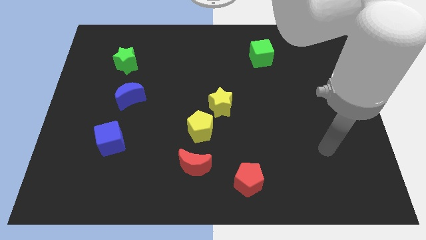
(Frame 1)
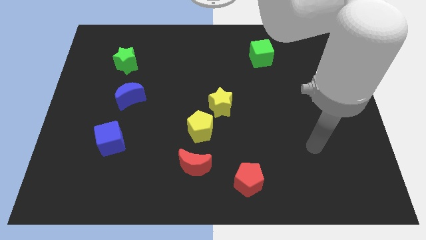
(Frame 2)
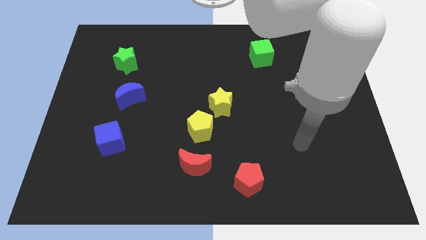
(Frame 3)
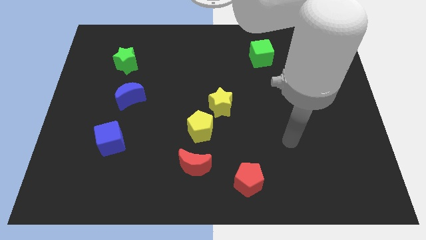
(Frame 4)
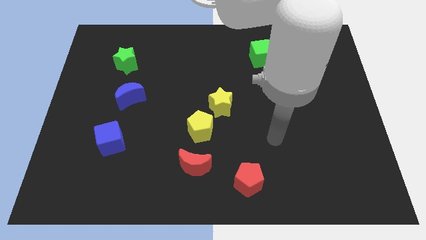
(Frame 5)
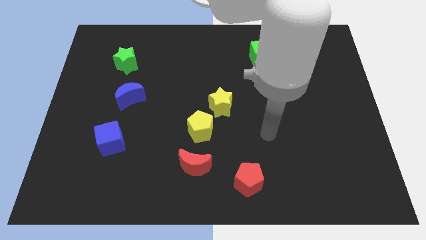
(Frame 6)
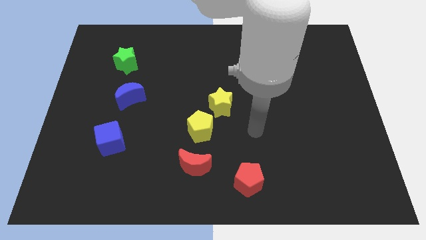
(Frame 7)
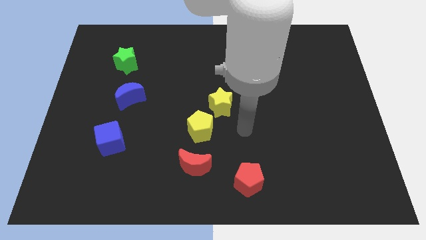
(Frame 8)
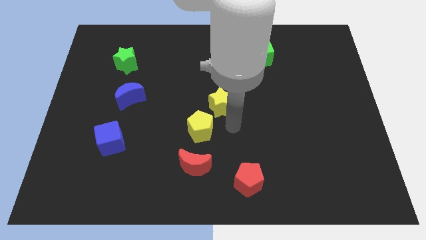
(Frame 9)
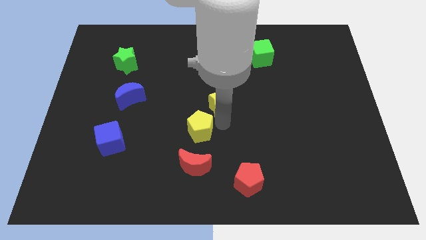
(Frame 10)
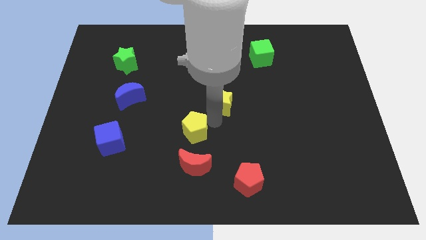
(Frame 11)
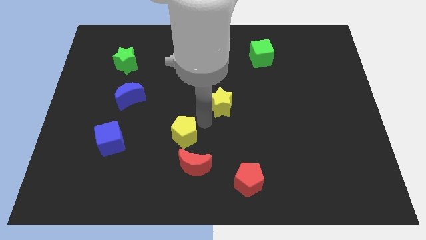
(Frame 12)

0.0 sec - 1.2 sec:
move the yellow star away from the yellow pentagon

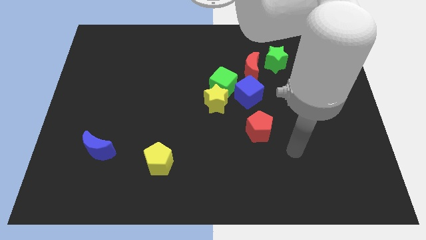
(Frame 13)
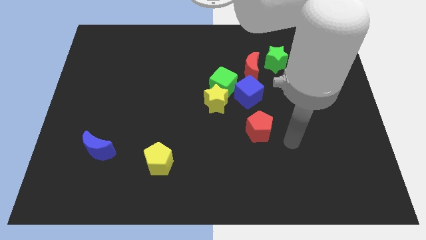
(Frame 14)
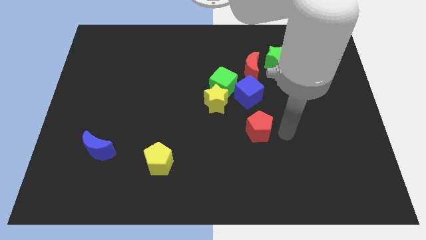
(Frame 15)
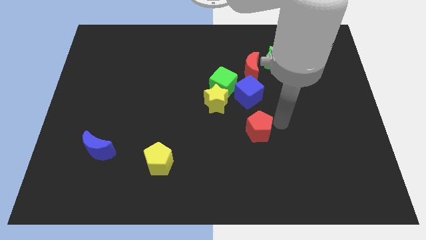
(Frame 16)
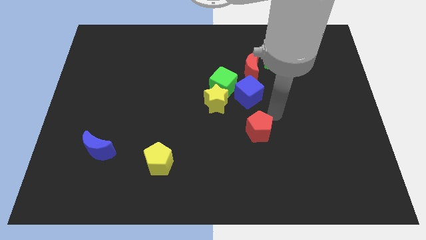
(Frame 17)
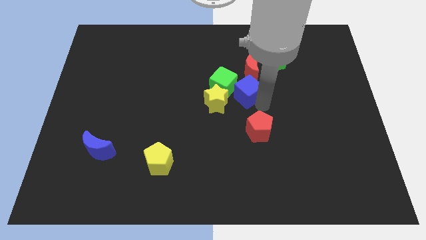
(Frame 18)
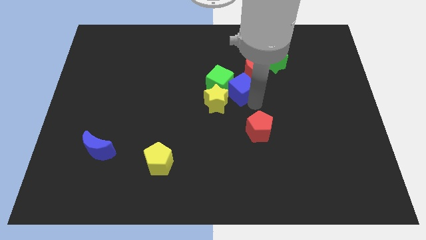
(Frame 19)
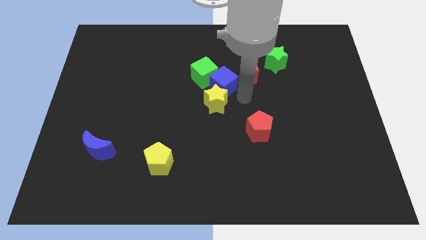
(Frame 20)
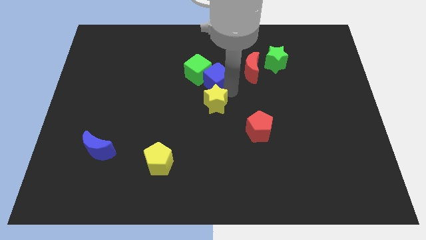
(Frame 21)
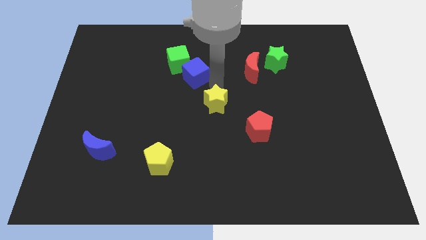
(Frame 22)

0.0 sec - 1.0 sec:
move the yellow star away from the green cube and blue cube

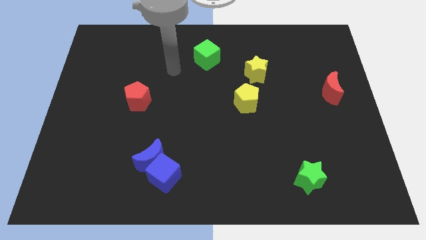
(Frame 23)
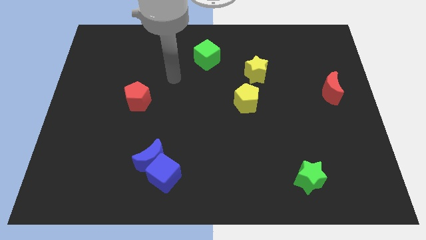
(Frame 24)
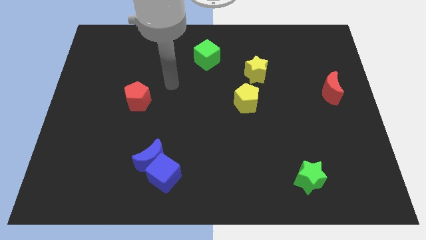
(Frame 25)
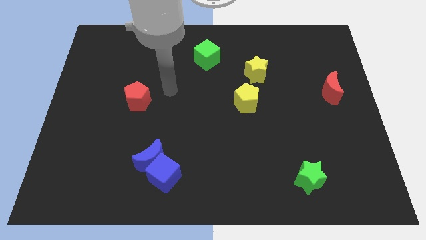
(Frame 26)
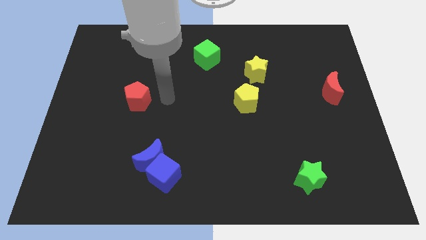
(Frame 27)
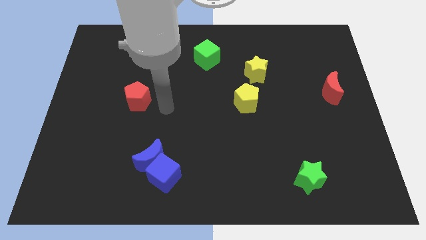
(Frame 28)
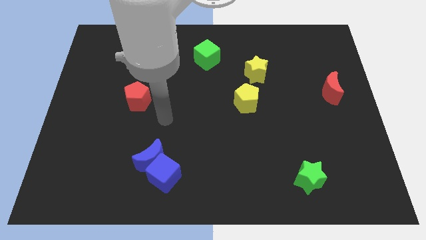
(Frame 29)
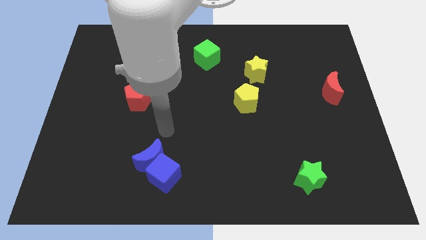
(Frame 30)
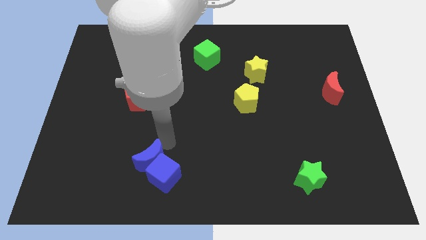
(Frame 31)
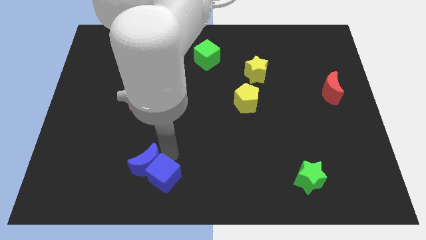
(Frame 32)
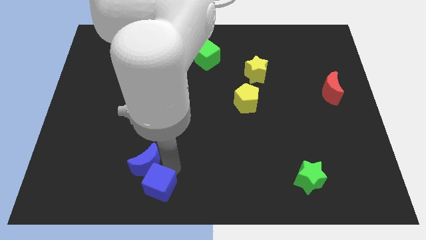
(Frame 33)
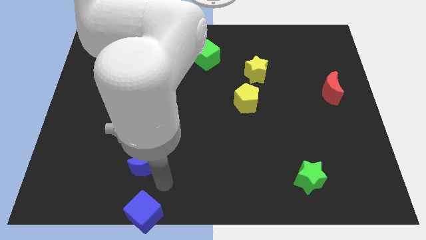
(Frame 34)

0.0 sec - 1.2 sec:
separate the blue moon from the blue cube

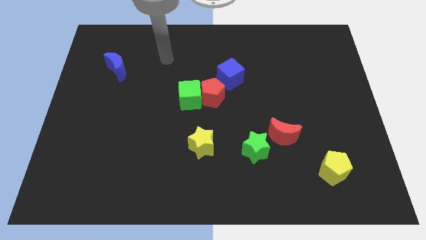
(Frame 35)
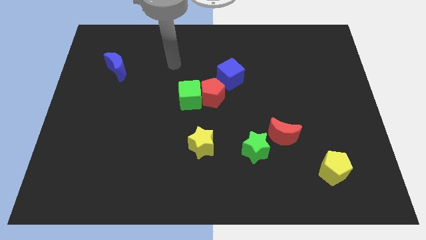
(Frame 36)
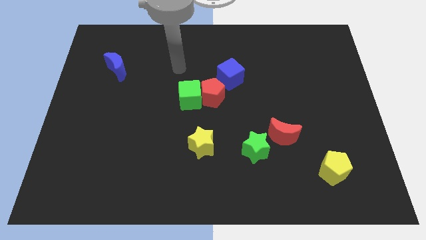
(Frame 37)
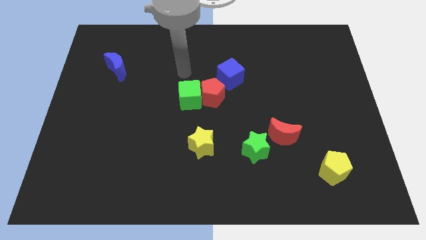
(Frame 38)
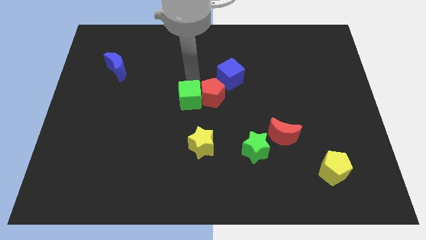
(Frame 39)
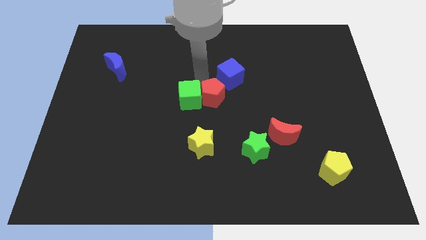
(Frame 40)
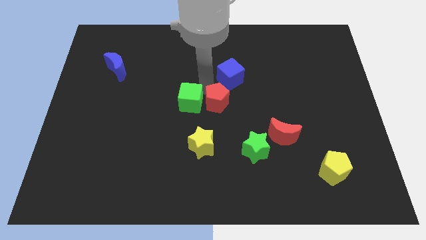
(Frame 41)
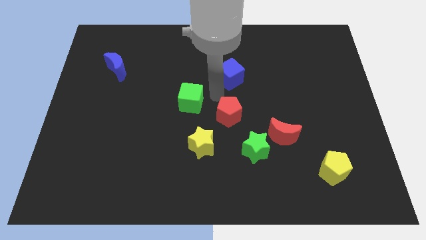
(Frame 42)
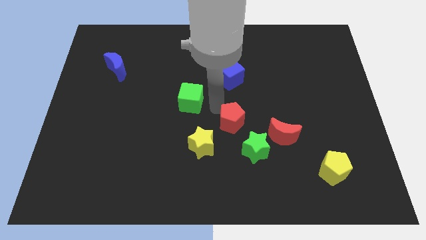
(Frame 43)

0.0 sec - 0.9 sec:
separate the green cube from the red pentagon

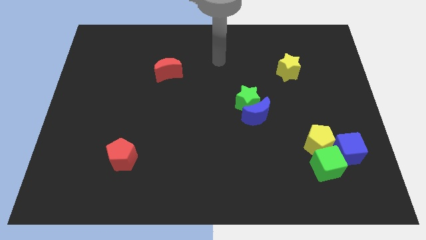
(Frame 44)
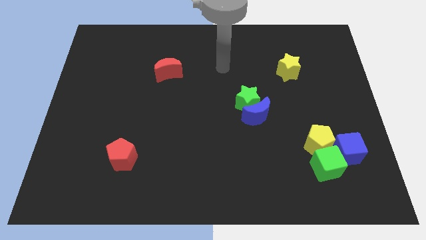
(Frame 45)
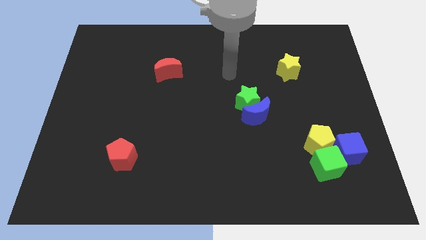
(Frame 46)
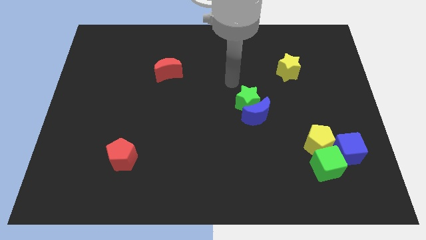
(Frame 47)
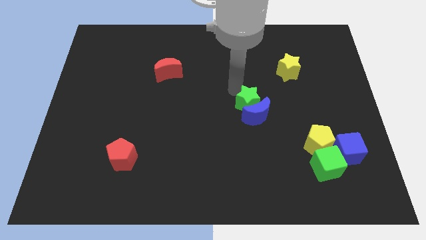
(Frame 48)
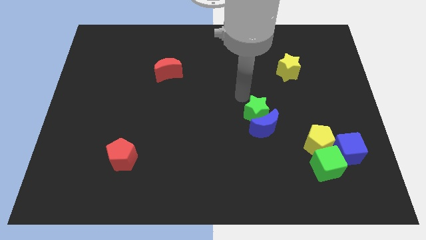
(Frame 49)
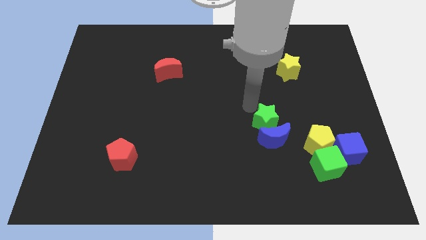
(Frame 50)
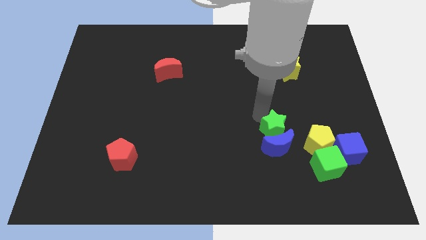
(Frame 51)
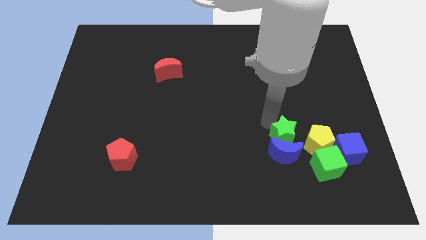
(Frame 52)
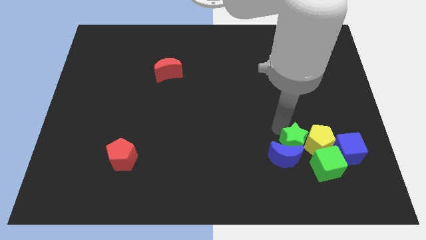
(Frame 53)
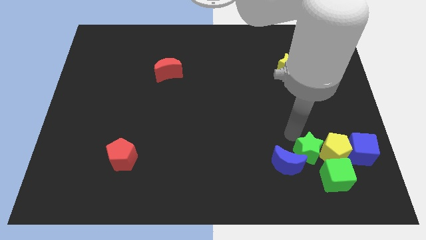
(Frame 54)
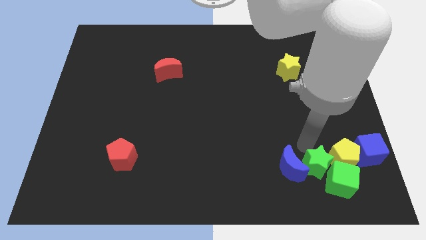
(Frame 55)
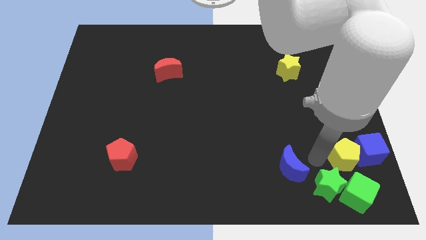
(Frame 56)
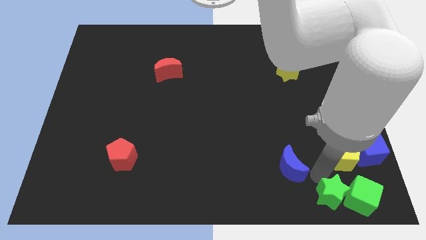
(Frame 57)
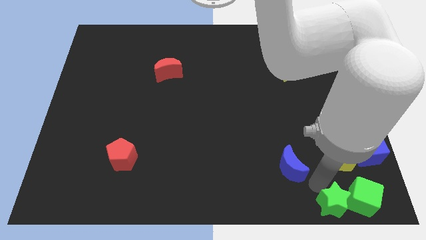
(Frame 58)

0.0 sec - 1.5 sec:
separate the blue moon from the green star

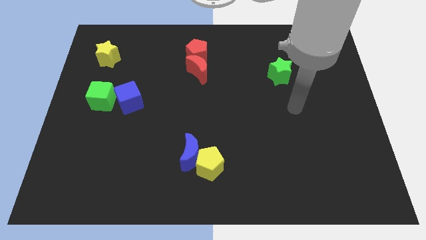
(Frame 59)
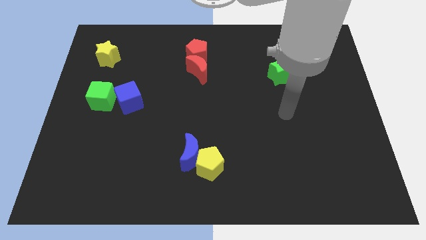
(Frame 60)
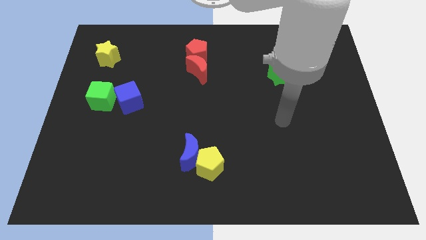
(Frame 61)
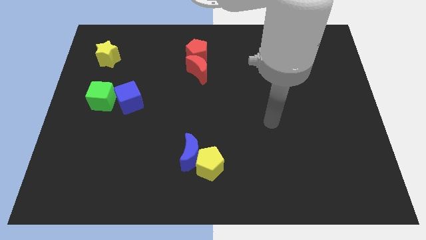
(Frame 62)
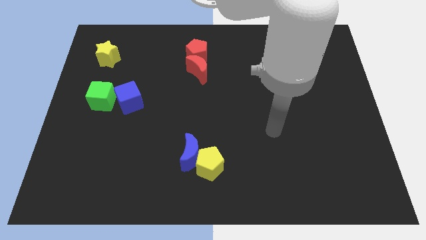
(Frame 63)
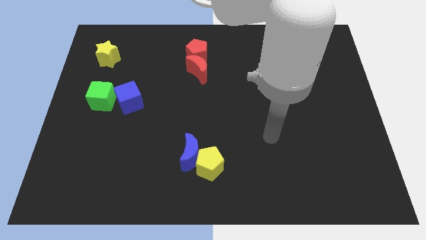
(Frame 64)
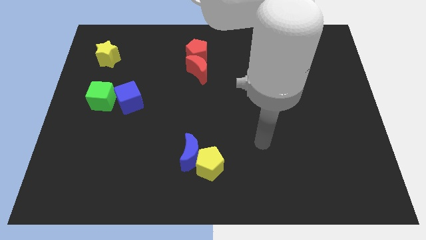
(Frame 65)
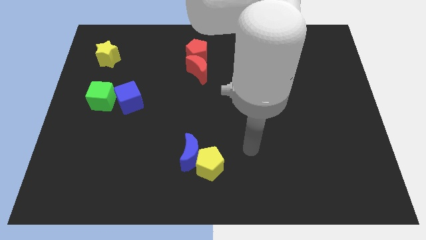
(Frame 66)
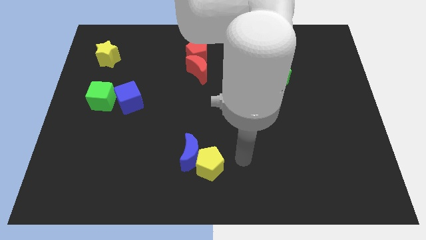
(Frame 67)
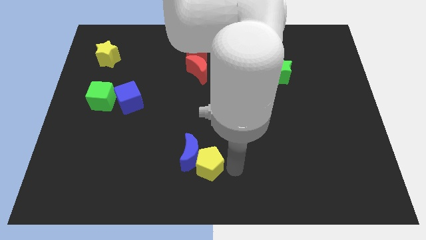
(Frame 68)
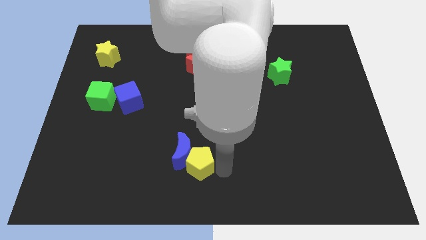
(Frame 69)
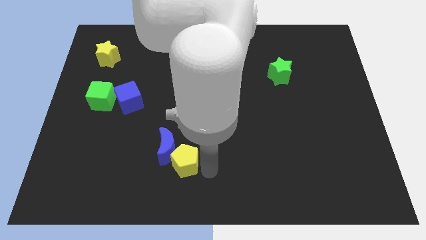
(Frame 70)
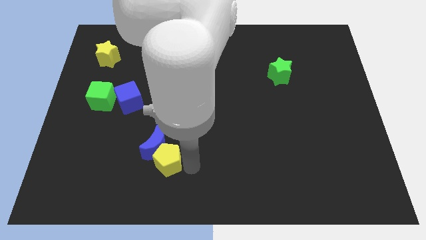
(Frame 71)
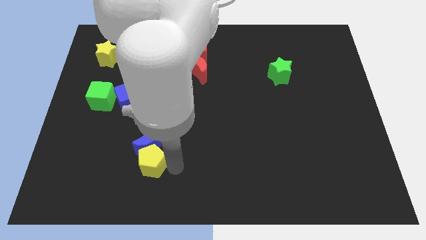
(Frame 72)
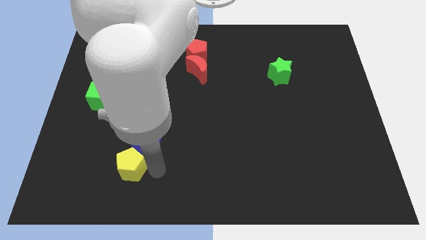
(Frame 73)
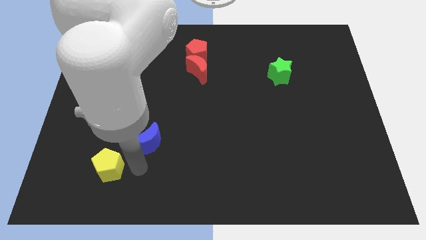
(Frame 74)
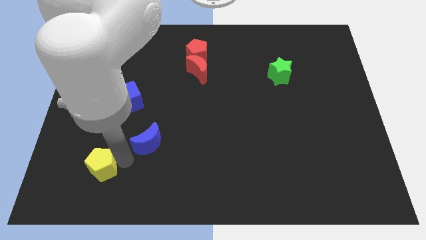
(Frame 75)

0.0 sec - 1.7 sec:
separate the blue moon from the yellow pentagon

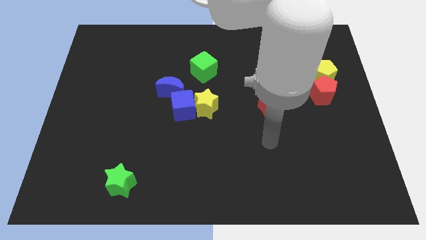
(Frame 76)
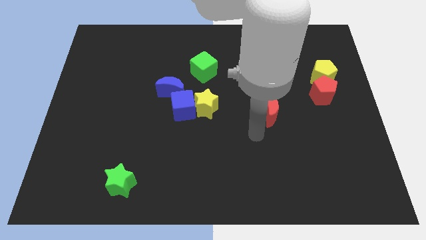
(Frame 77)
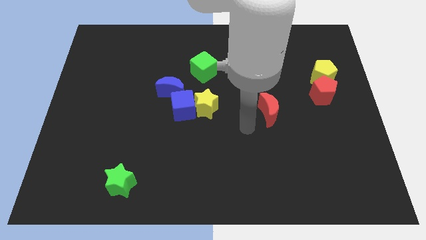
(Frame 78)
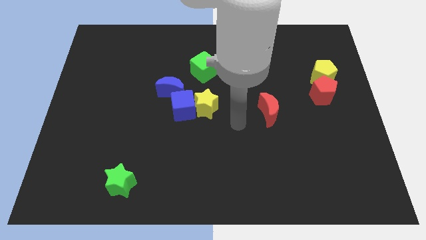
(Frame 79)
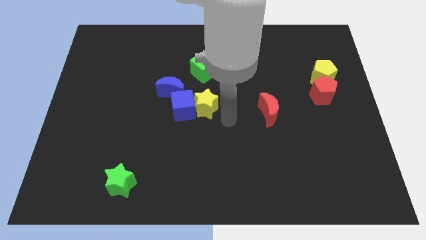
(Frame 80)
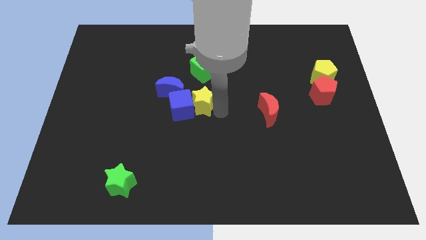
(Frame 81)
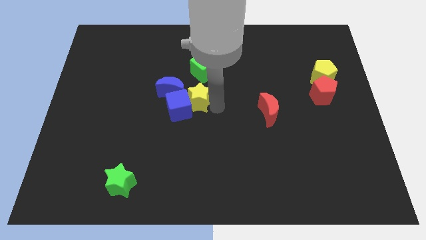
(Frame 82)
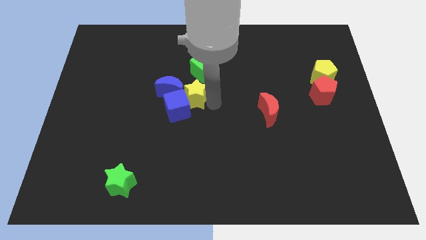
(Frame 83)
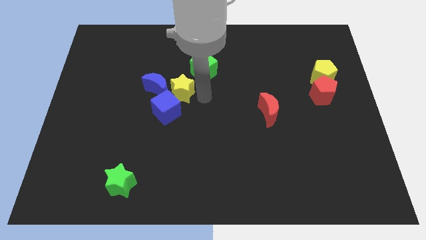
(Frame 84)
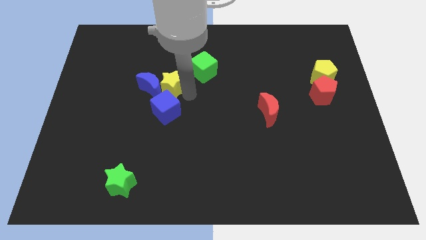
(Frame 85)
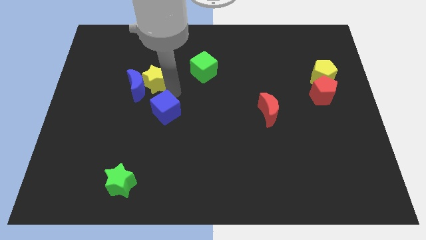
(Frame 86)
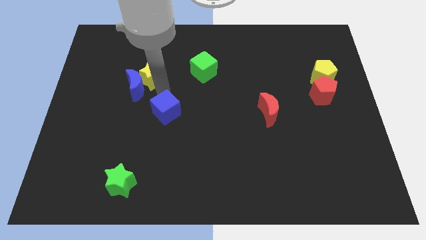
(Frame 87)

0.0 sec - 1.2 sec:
move the blue cube away from the yellow star and blue moon

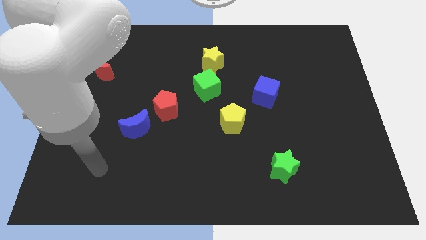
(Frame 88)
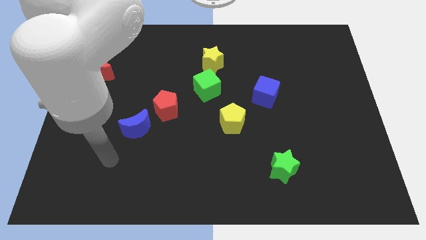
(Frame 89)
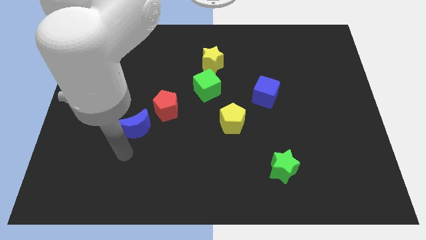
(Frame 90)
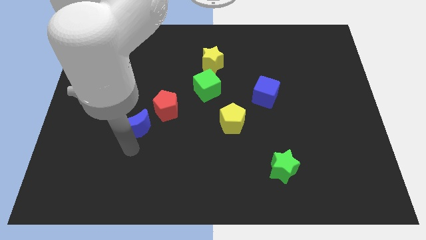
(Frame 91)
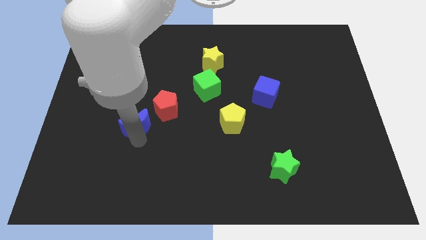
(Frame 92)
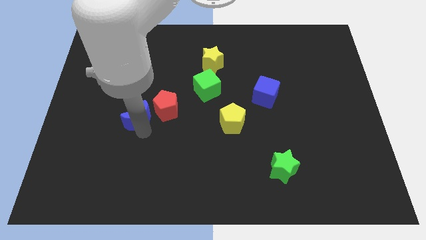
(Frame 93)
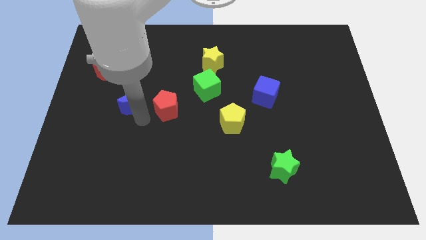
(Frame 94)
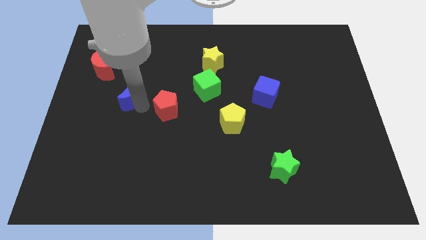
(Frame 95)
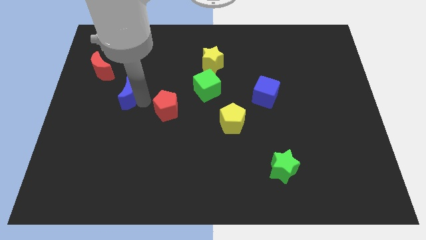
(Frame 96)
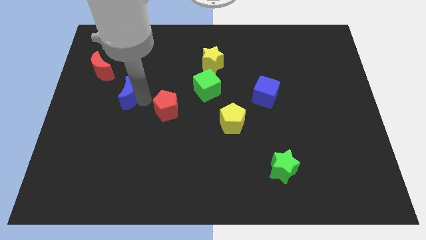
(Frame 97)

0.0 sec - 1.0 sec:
move the red pentagon away from the blue moon
